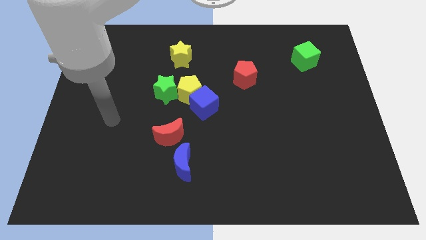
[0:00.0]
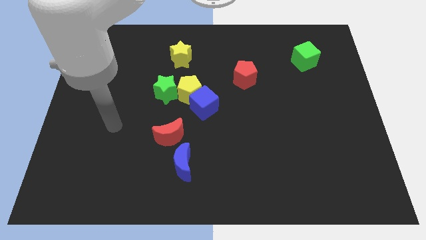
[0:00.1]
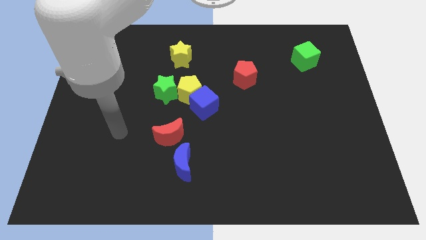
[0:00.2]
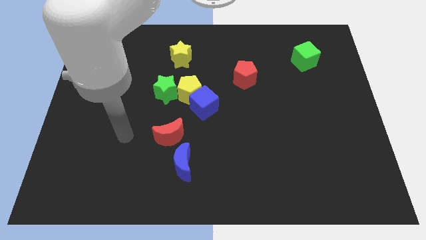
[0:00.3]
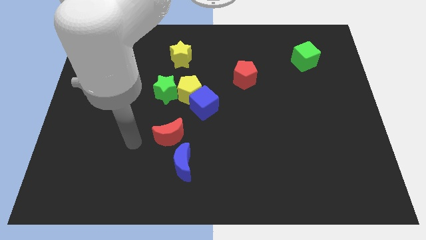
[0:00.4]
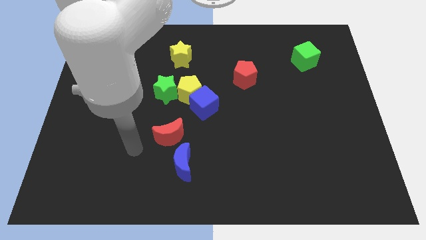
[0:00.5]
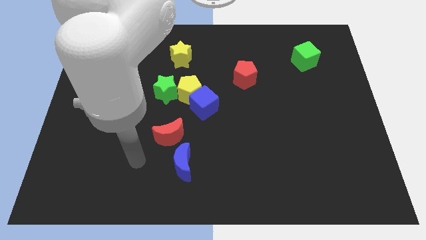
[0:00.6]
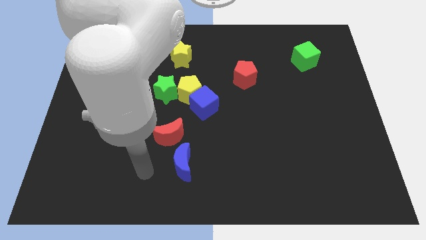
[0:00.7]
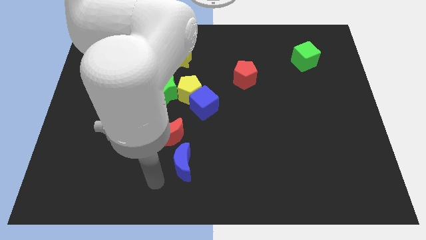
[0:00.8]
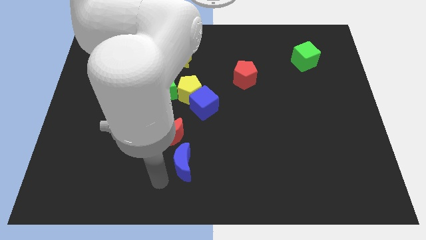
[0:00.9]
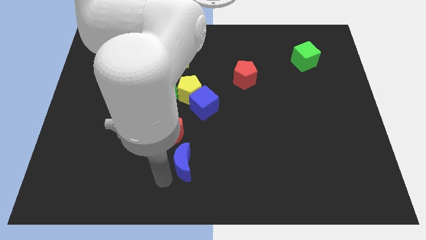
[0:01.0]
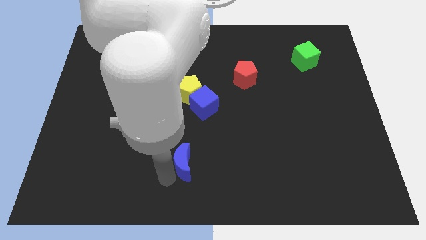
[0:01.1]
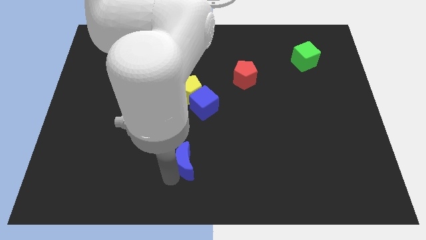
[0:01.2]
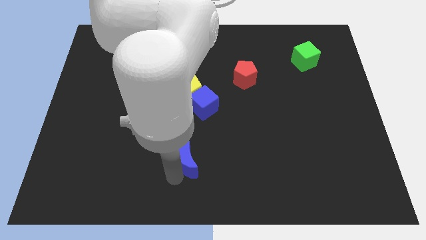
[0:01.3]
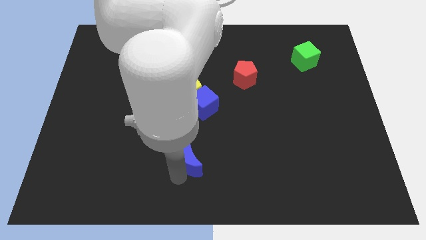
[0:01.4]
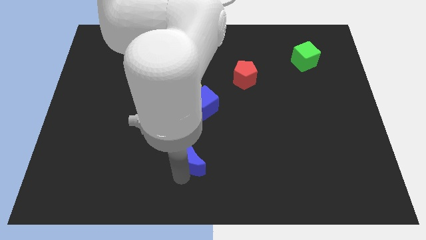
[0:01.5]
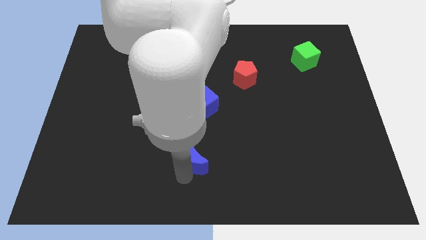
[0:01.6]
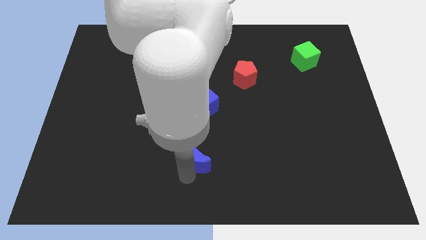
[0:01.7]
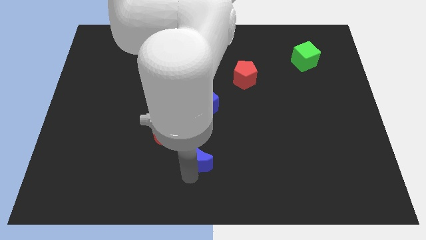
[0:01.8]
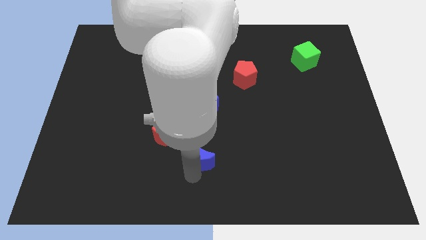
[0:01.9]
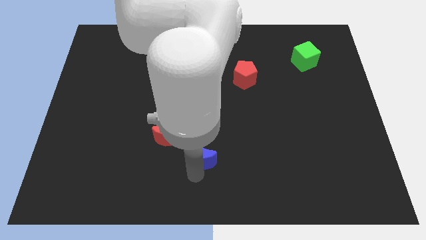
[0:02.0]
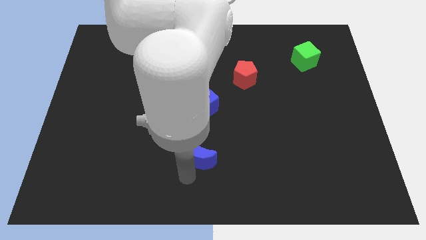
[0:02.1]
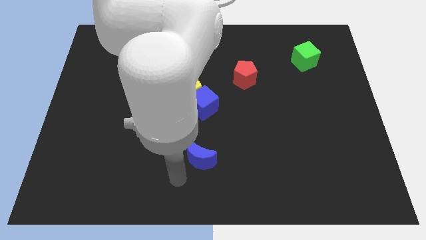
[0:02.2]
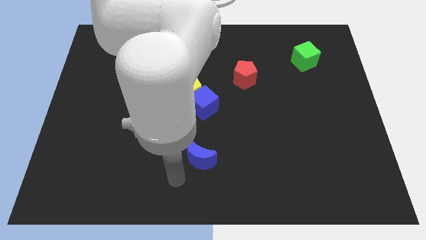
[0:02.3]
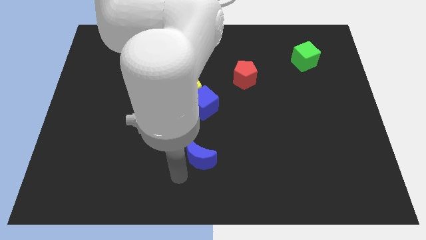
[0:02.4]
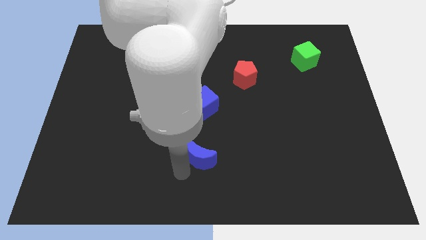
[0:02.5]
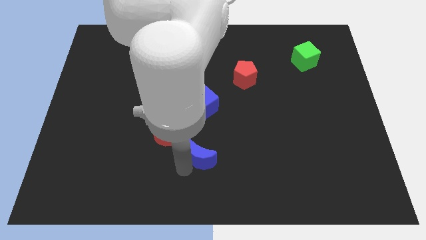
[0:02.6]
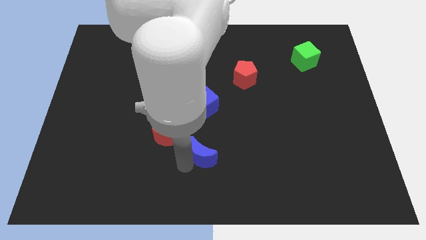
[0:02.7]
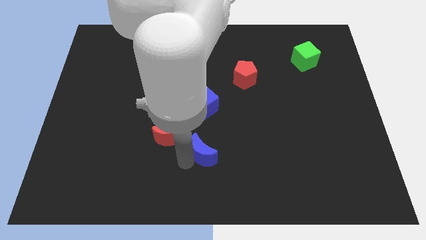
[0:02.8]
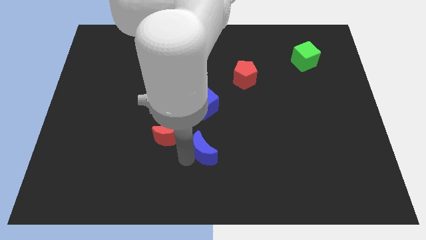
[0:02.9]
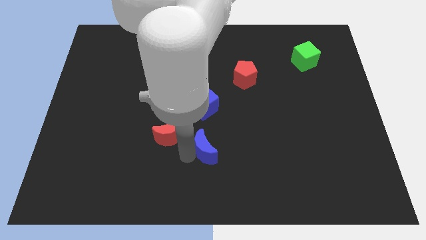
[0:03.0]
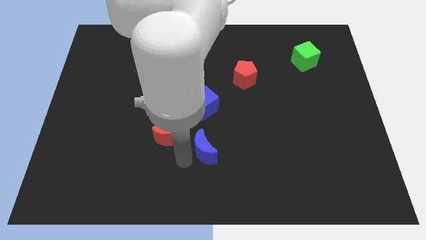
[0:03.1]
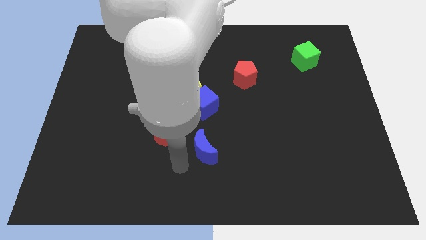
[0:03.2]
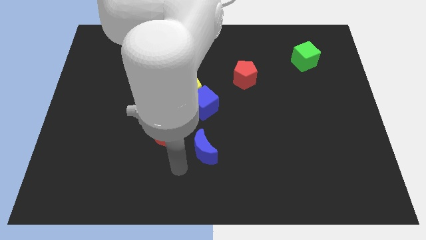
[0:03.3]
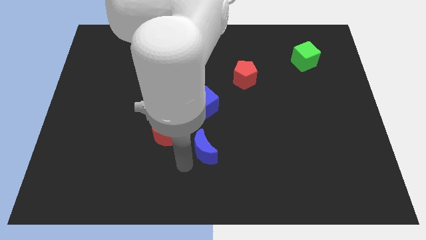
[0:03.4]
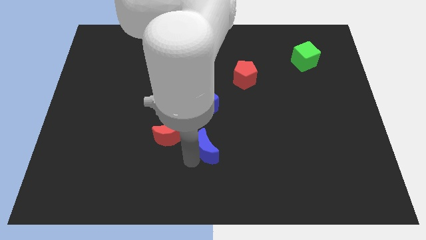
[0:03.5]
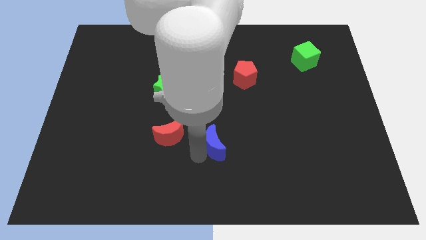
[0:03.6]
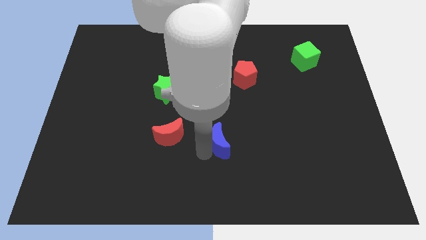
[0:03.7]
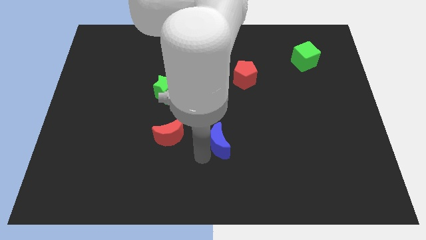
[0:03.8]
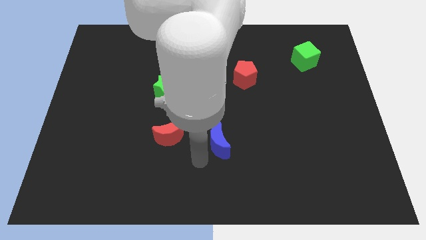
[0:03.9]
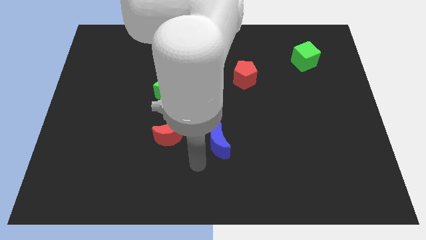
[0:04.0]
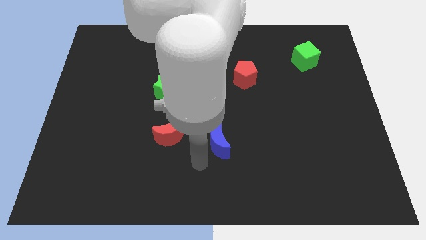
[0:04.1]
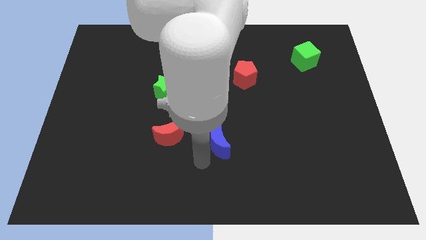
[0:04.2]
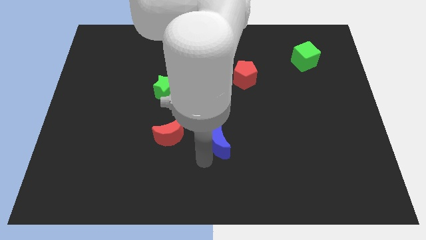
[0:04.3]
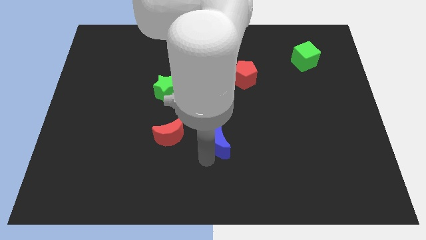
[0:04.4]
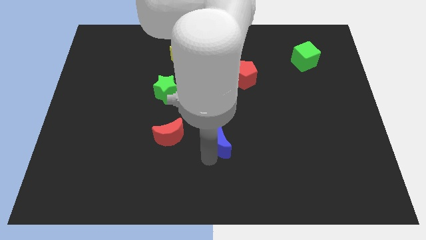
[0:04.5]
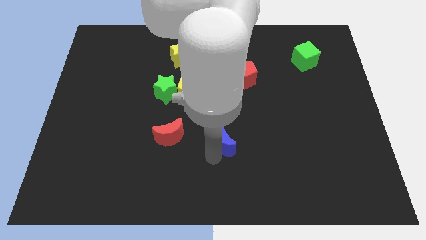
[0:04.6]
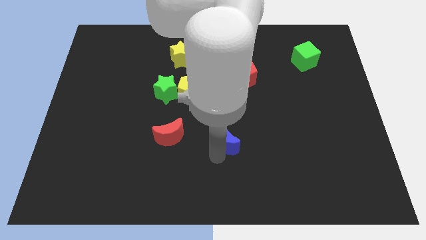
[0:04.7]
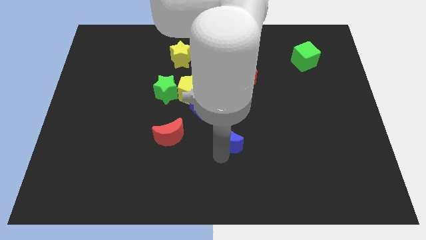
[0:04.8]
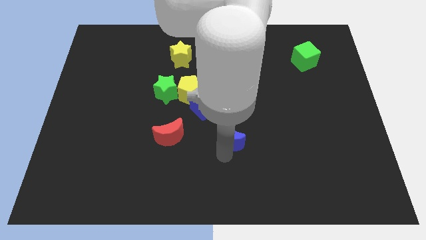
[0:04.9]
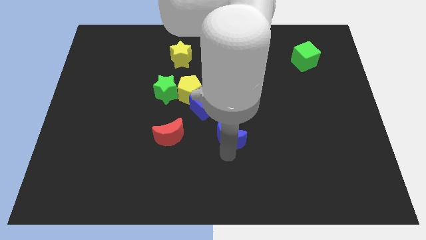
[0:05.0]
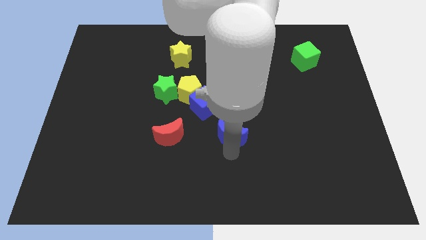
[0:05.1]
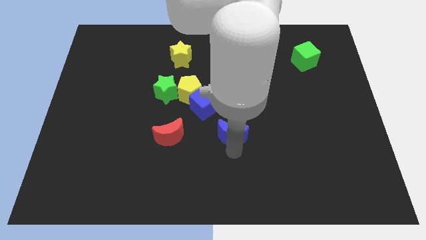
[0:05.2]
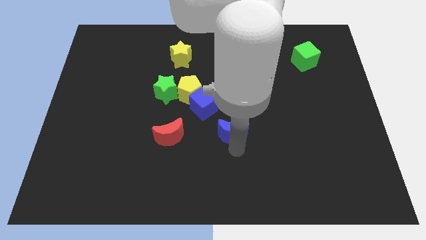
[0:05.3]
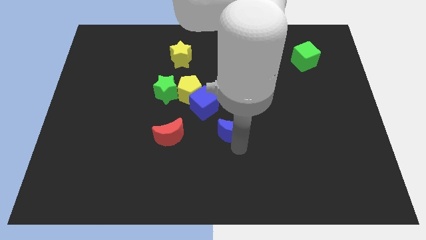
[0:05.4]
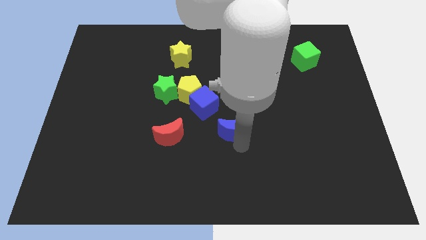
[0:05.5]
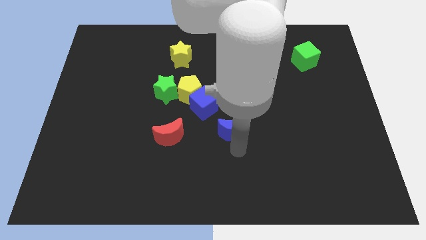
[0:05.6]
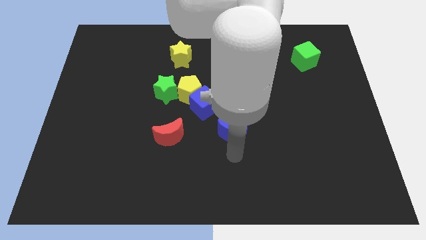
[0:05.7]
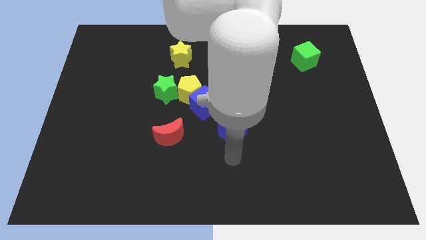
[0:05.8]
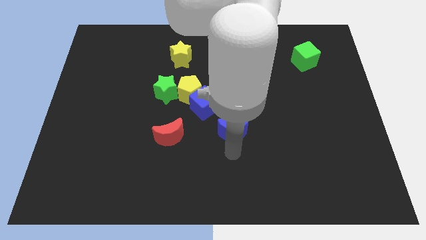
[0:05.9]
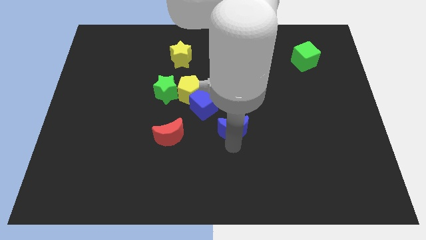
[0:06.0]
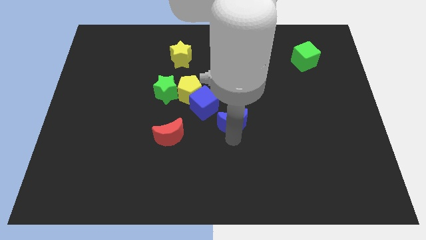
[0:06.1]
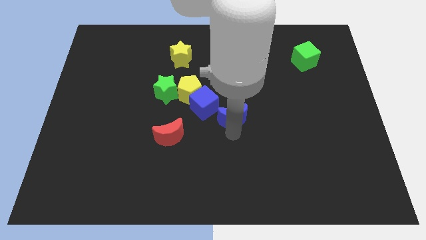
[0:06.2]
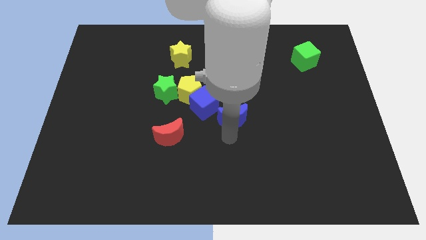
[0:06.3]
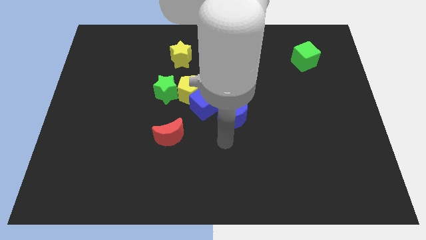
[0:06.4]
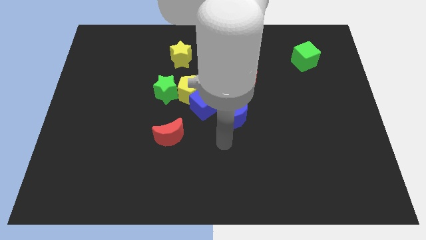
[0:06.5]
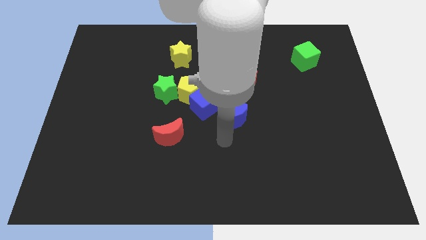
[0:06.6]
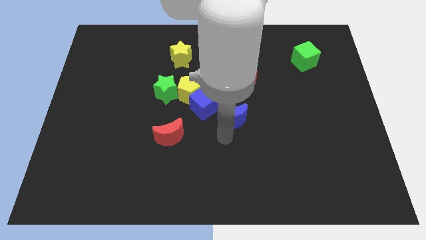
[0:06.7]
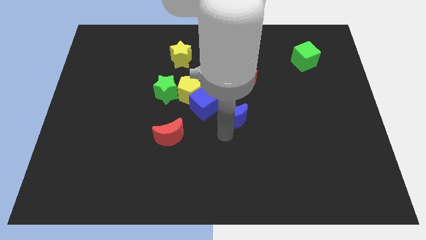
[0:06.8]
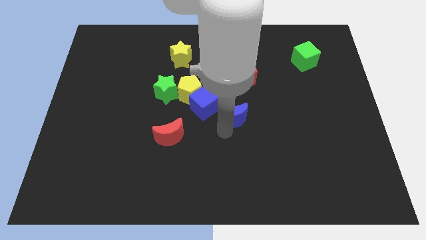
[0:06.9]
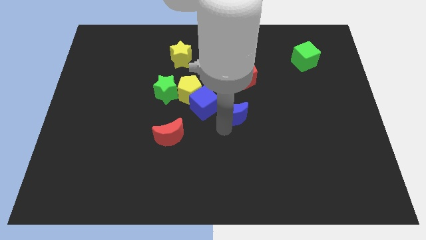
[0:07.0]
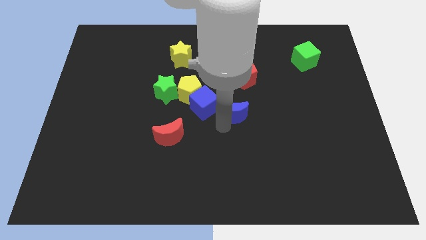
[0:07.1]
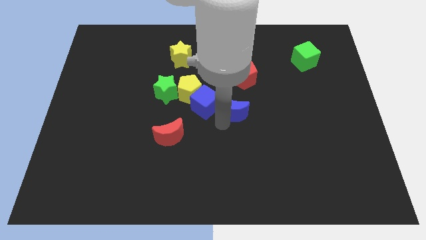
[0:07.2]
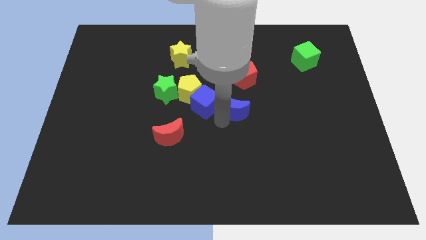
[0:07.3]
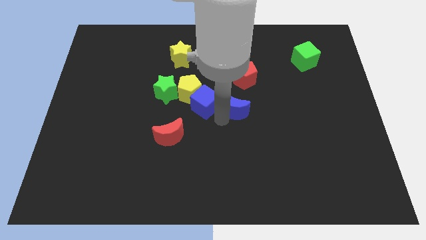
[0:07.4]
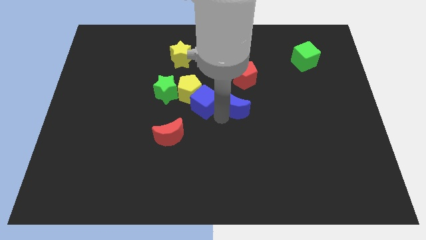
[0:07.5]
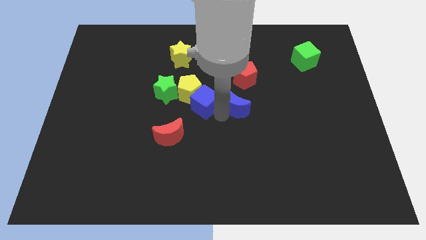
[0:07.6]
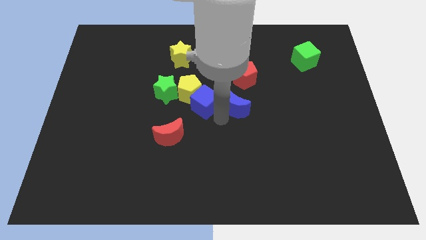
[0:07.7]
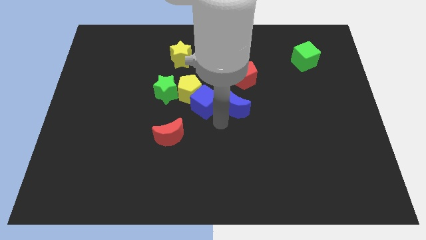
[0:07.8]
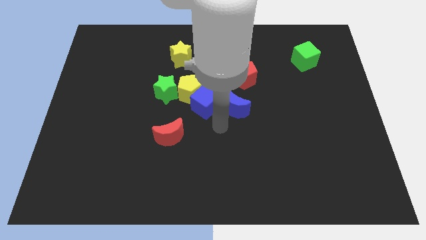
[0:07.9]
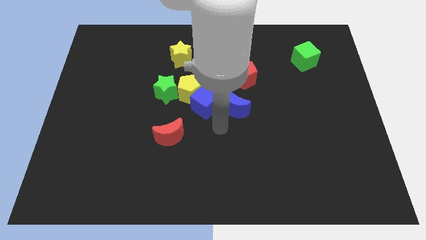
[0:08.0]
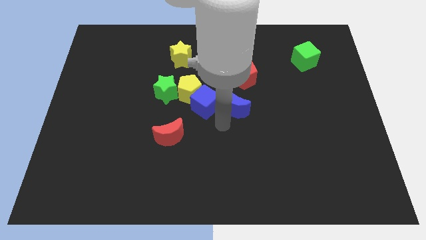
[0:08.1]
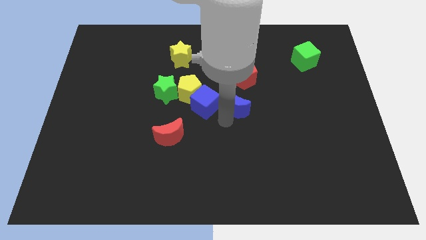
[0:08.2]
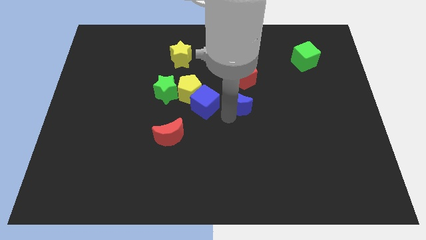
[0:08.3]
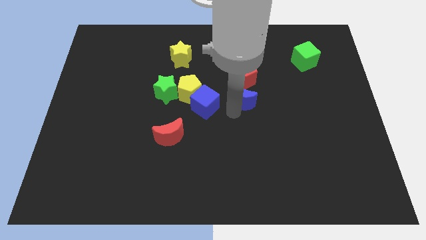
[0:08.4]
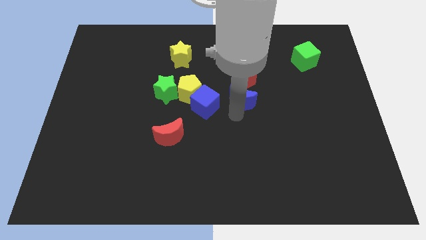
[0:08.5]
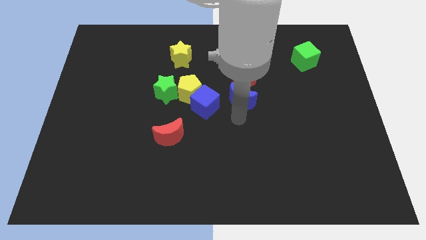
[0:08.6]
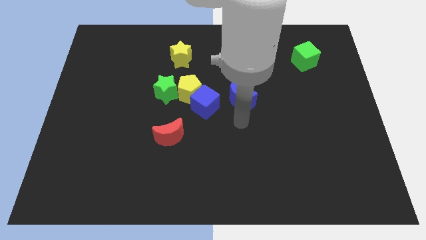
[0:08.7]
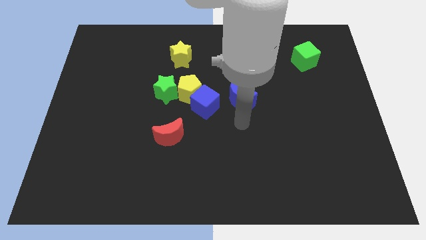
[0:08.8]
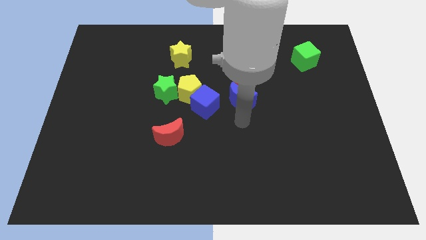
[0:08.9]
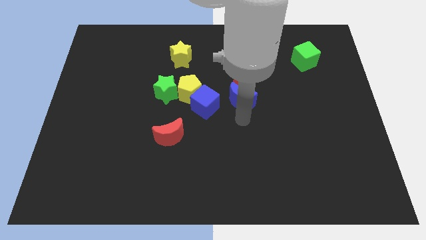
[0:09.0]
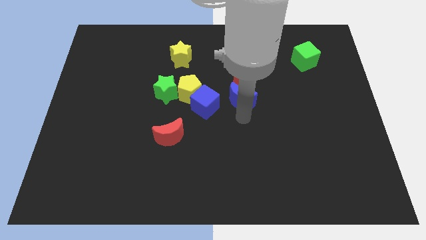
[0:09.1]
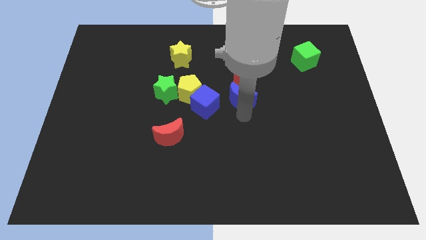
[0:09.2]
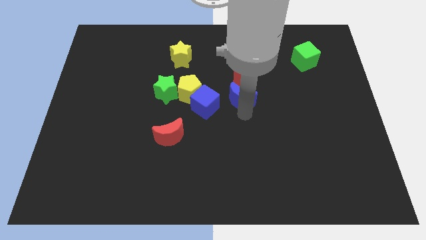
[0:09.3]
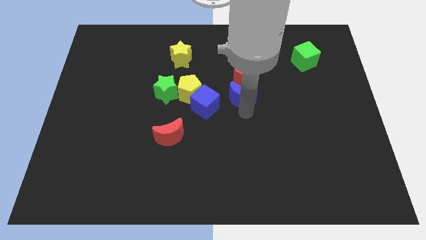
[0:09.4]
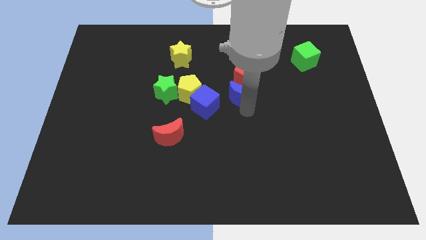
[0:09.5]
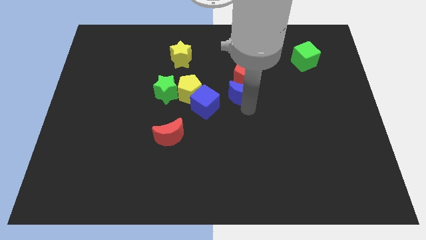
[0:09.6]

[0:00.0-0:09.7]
slide the blue moon towards the red pentagon
